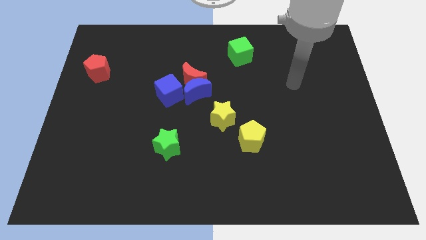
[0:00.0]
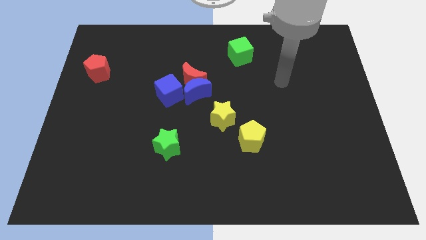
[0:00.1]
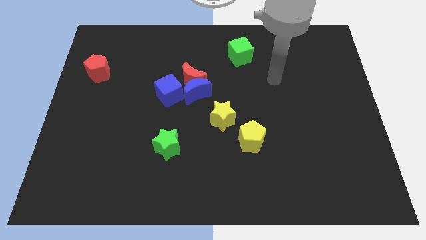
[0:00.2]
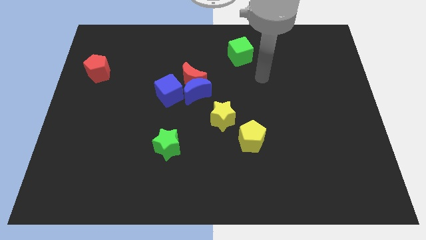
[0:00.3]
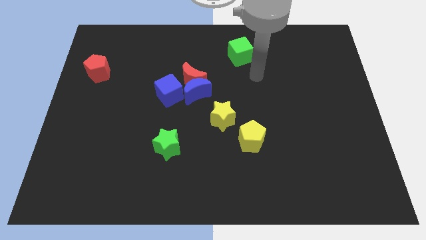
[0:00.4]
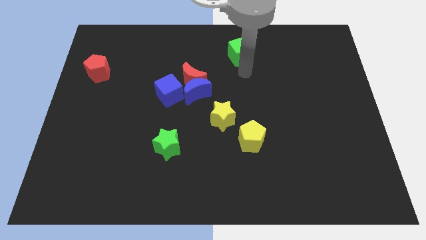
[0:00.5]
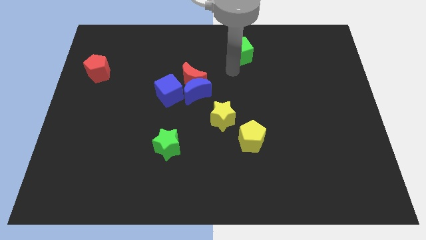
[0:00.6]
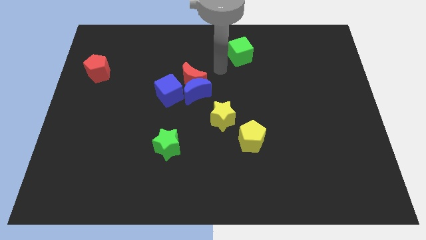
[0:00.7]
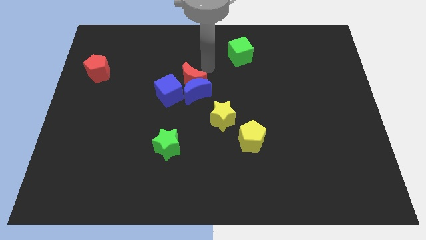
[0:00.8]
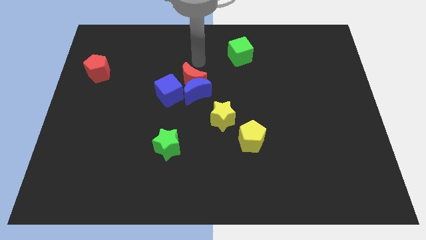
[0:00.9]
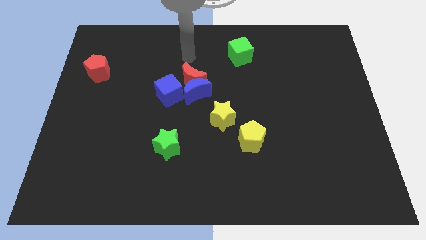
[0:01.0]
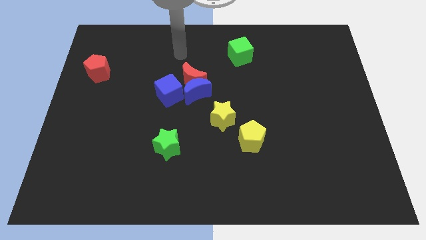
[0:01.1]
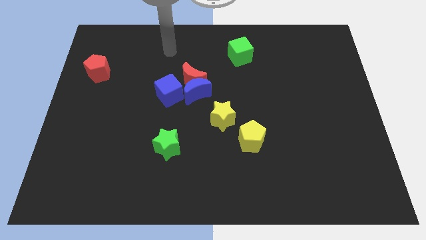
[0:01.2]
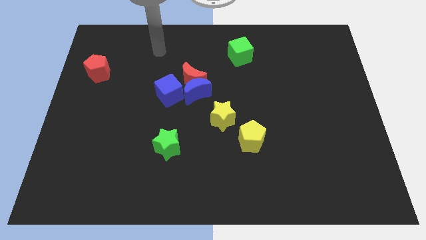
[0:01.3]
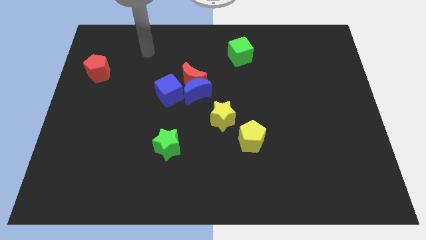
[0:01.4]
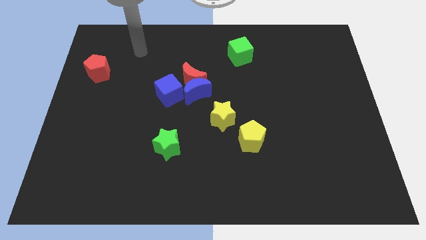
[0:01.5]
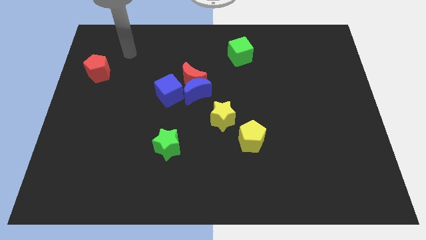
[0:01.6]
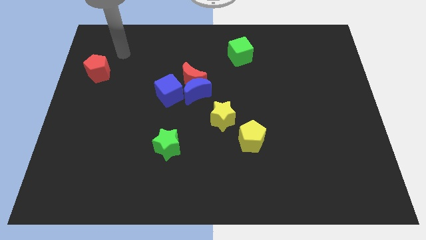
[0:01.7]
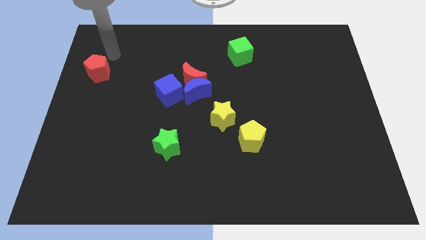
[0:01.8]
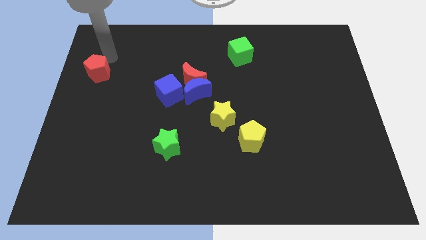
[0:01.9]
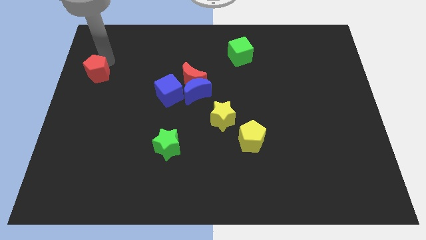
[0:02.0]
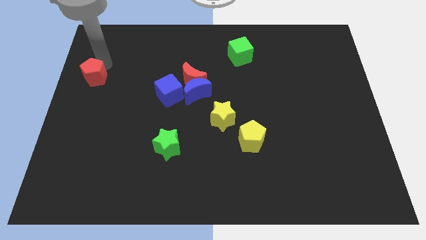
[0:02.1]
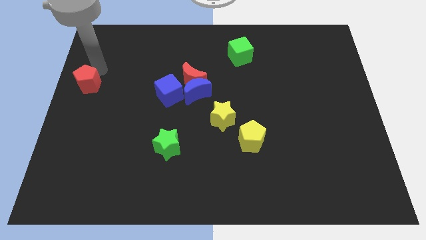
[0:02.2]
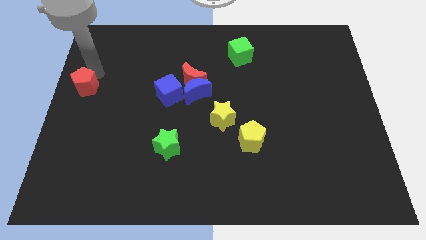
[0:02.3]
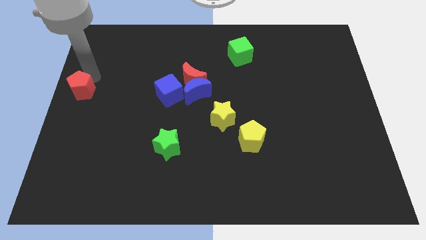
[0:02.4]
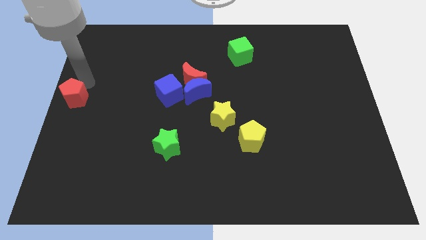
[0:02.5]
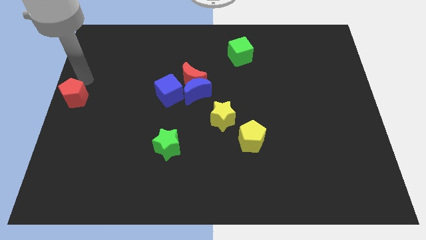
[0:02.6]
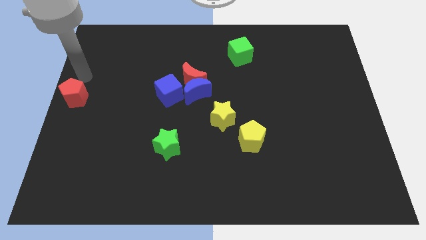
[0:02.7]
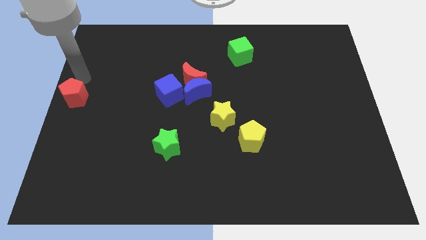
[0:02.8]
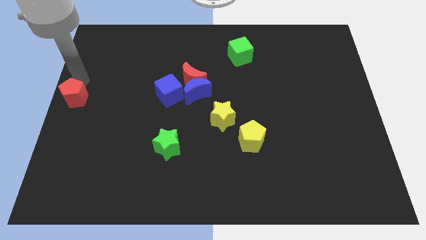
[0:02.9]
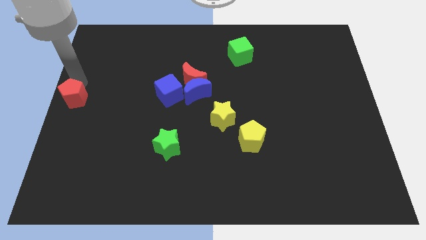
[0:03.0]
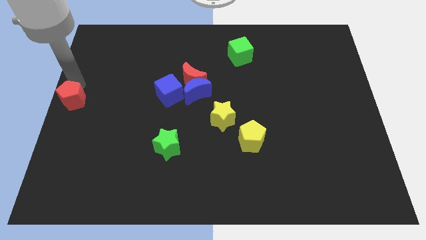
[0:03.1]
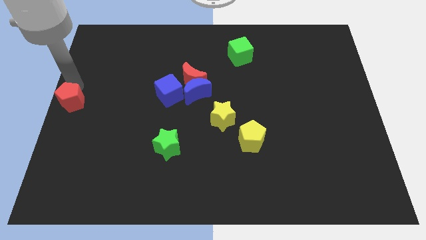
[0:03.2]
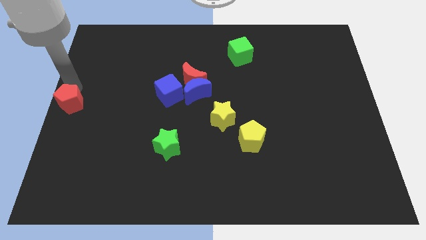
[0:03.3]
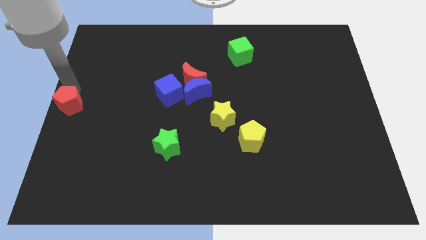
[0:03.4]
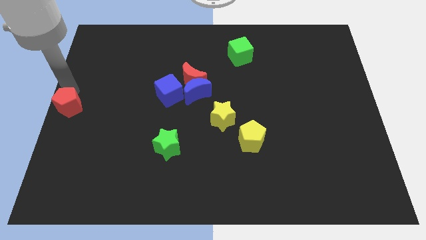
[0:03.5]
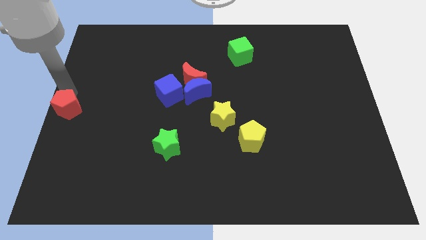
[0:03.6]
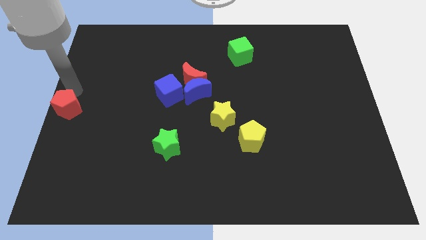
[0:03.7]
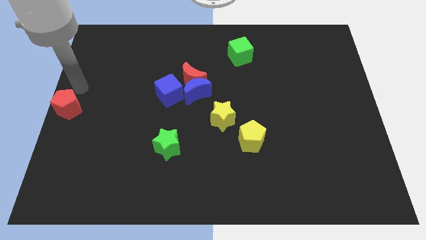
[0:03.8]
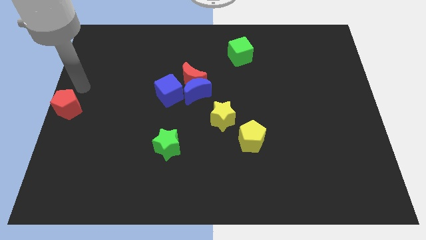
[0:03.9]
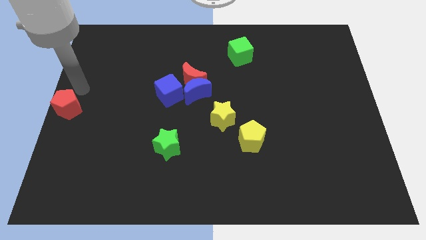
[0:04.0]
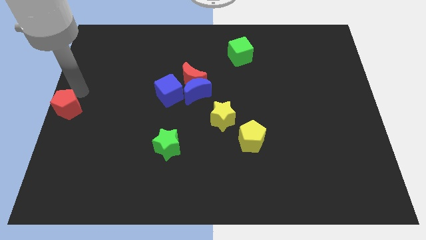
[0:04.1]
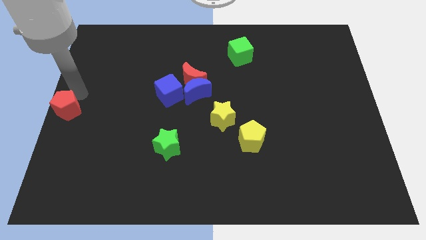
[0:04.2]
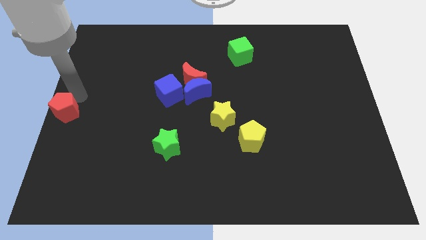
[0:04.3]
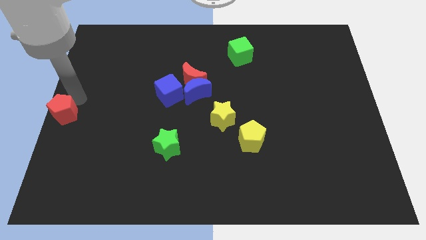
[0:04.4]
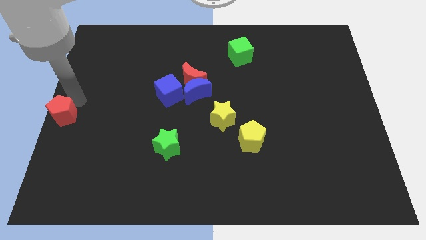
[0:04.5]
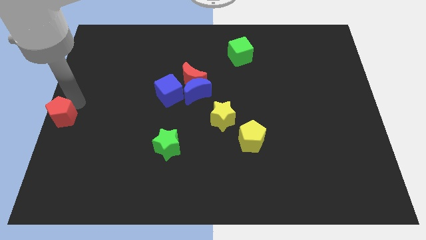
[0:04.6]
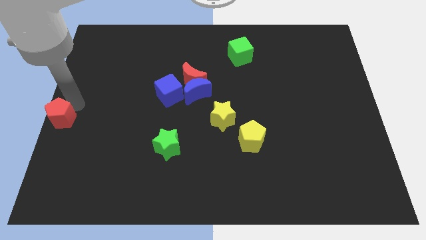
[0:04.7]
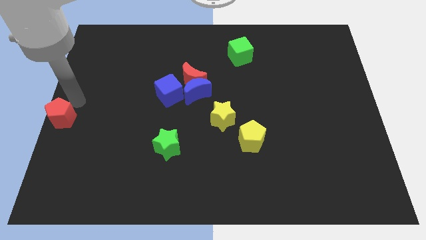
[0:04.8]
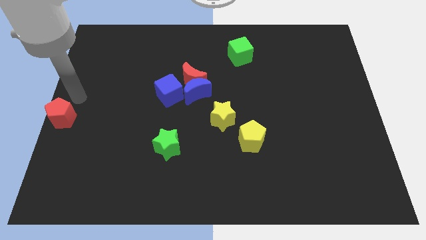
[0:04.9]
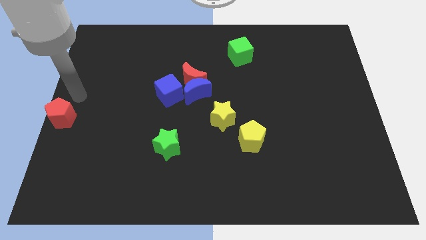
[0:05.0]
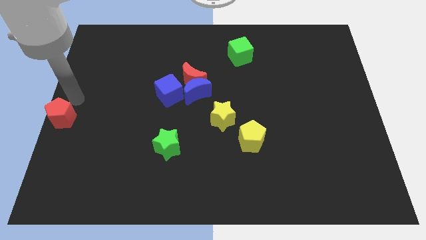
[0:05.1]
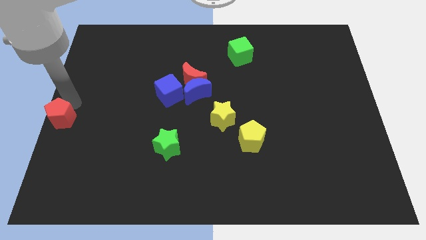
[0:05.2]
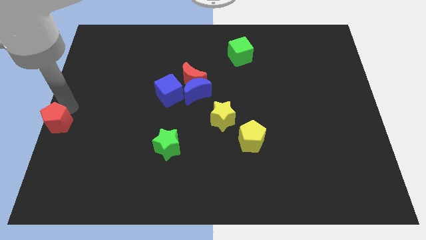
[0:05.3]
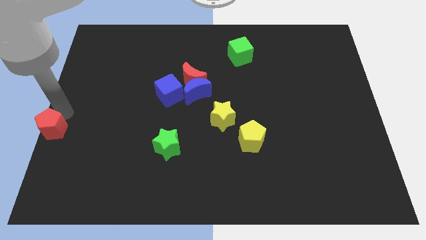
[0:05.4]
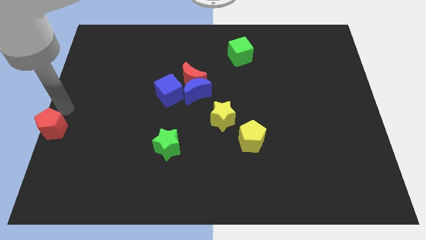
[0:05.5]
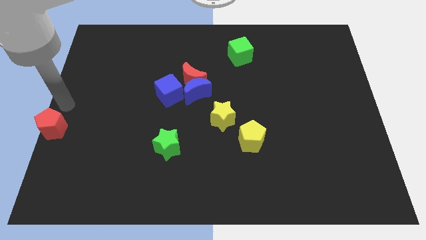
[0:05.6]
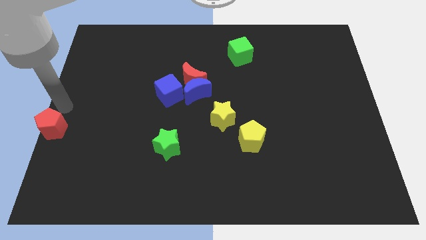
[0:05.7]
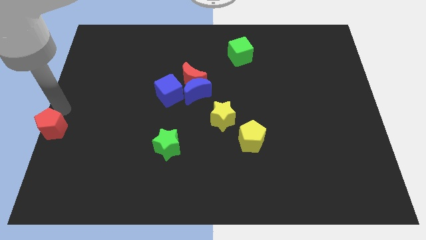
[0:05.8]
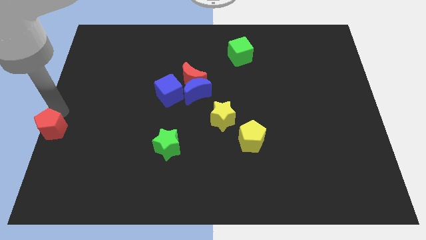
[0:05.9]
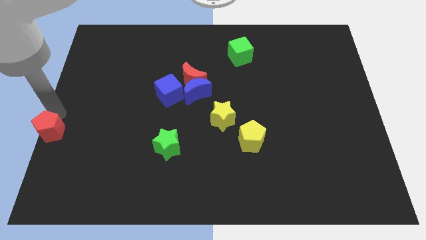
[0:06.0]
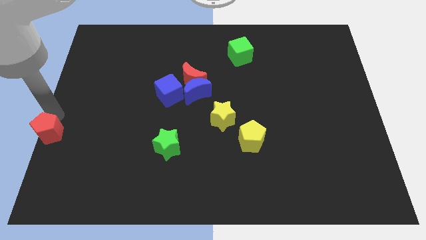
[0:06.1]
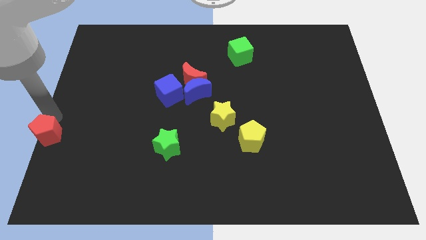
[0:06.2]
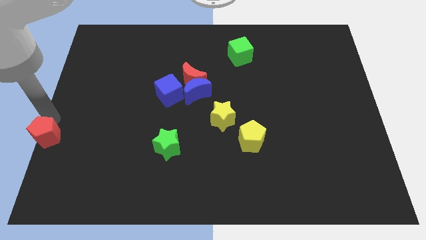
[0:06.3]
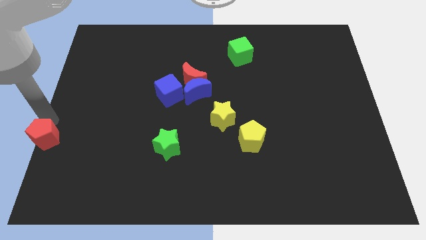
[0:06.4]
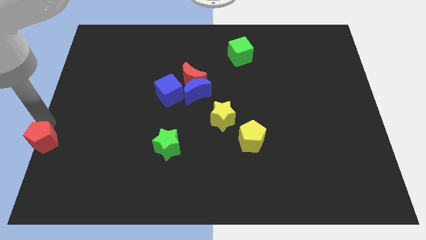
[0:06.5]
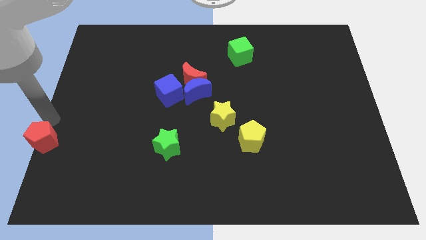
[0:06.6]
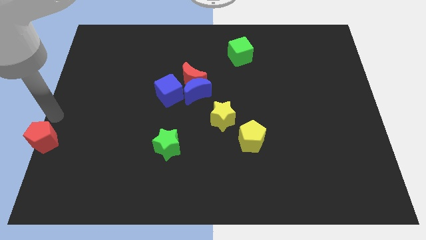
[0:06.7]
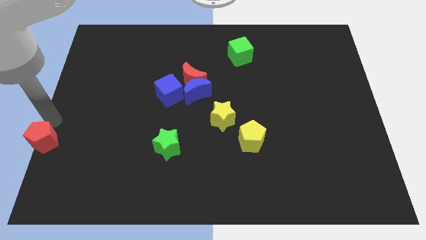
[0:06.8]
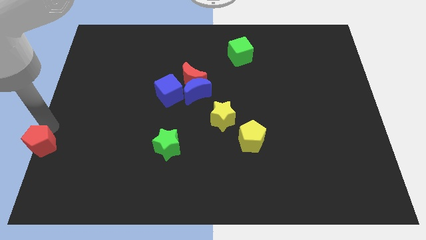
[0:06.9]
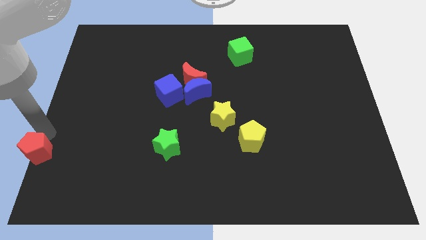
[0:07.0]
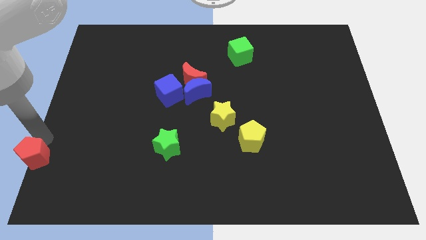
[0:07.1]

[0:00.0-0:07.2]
move the red pentagon to the bottom left
